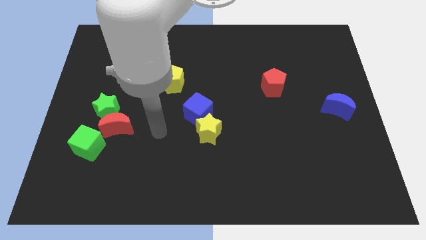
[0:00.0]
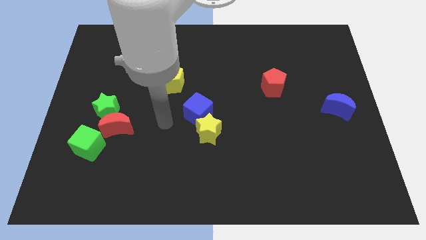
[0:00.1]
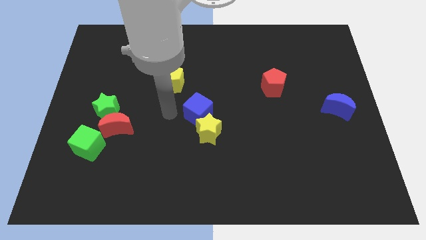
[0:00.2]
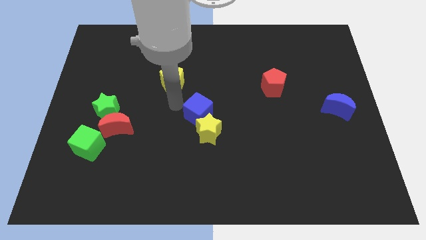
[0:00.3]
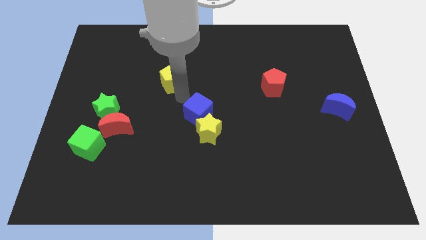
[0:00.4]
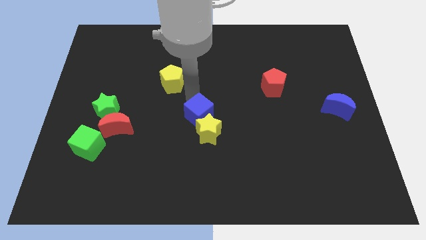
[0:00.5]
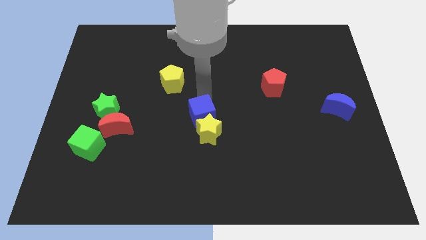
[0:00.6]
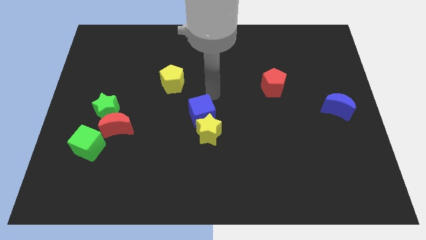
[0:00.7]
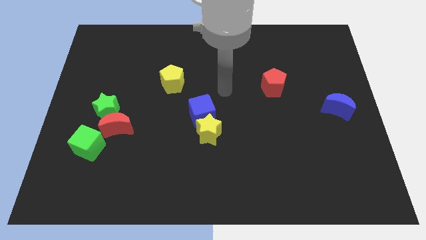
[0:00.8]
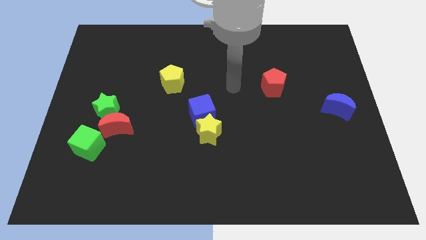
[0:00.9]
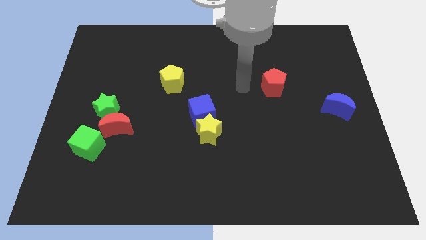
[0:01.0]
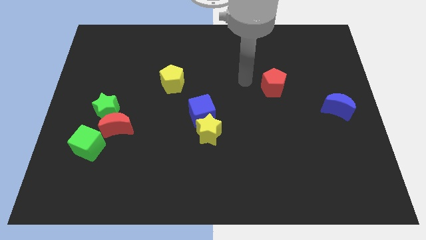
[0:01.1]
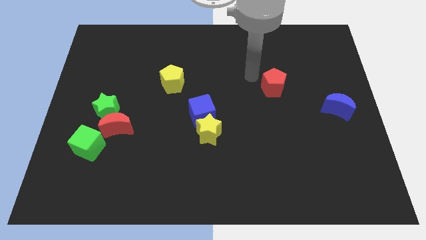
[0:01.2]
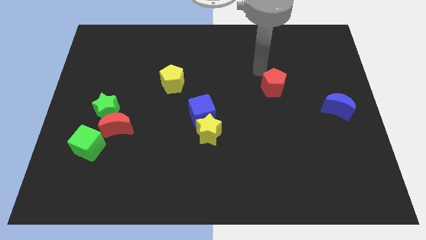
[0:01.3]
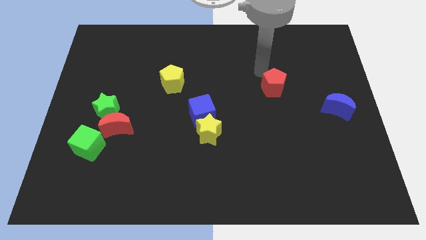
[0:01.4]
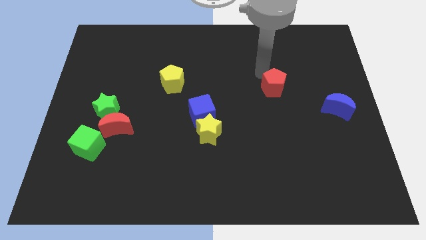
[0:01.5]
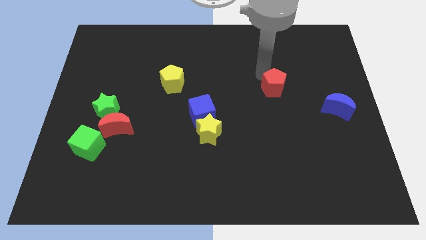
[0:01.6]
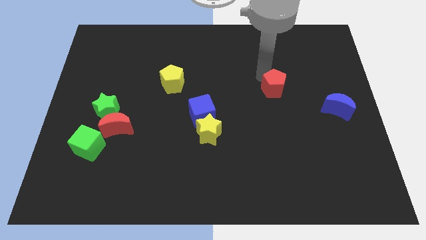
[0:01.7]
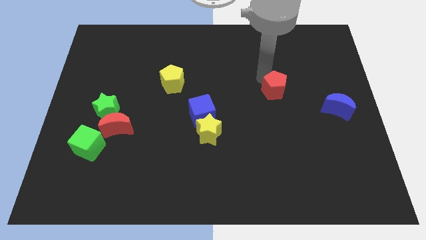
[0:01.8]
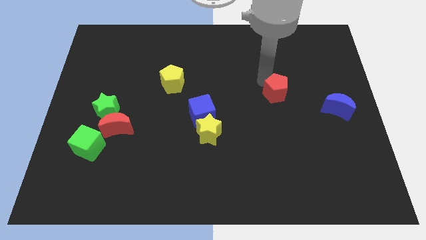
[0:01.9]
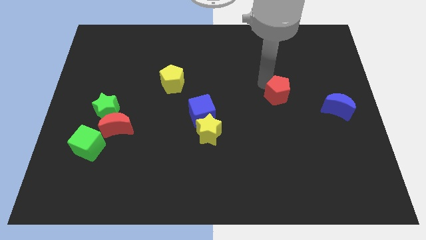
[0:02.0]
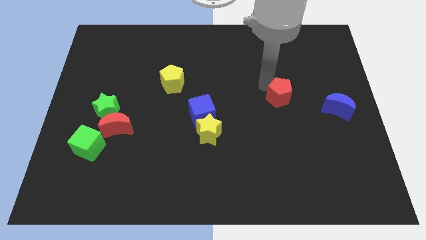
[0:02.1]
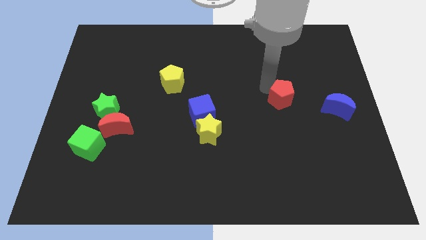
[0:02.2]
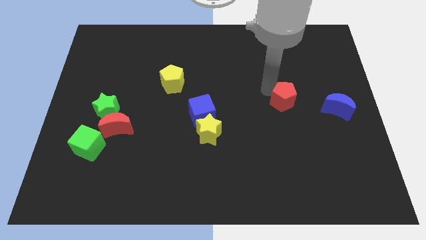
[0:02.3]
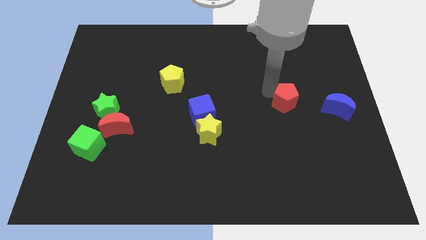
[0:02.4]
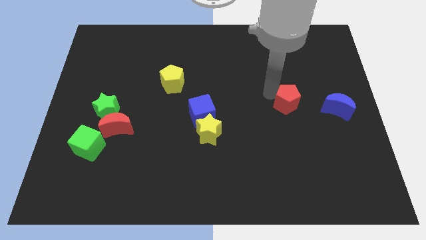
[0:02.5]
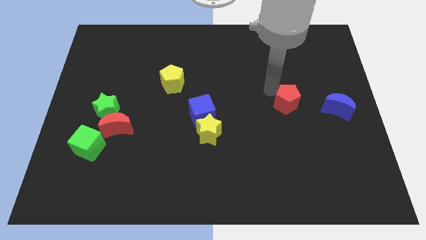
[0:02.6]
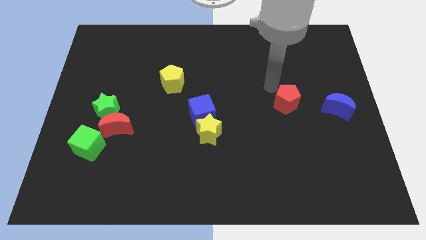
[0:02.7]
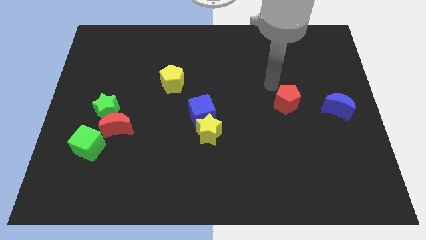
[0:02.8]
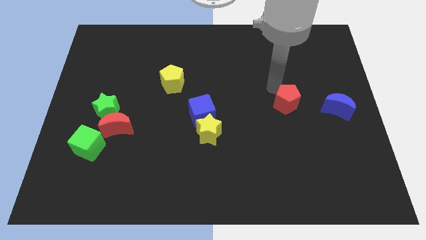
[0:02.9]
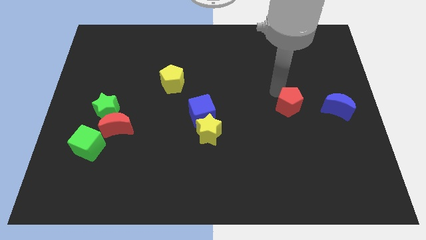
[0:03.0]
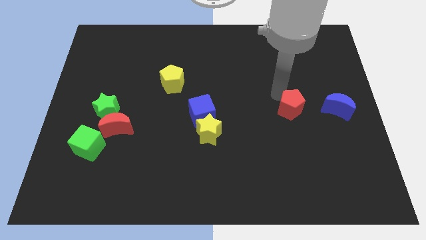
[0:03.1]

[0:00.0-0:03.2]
slightly slide the red pentagon down and then right

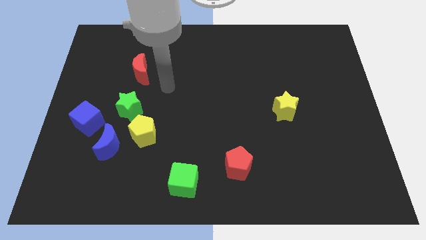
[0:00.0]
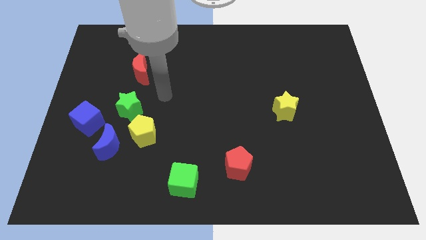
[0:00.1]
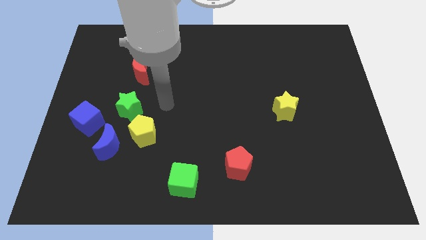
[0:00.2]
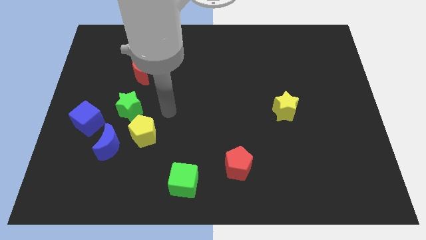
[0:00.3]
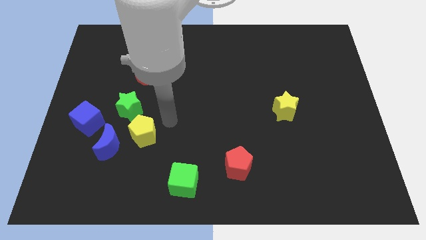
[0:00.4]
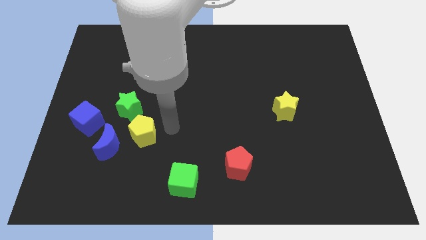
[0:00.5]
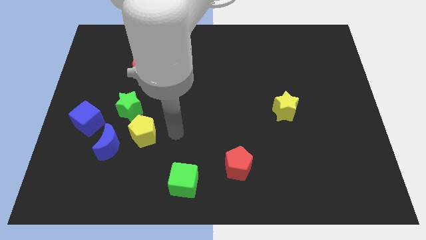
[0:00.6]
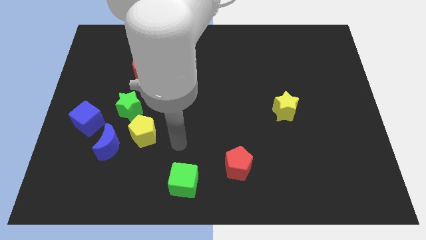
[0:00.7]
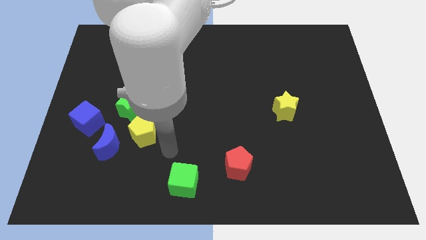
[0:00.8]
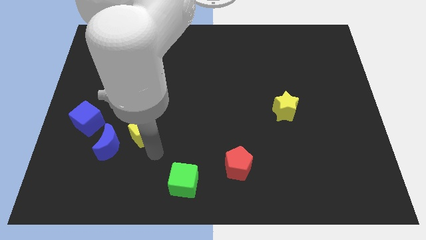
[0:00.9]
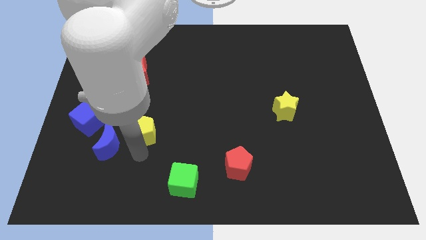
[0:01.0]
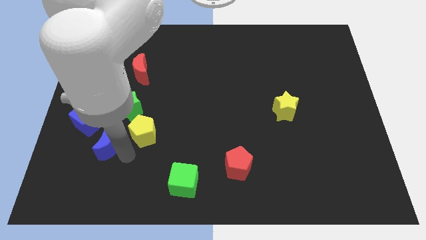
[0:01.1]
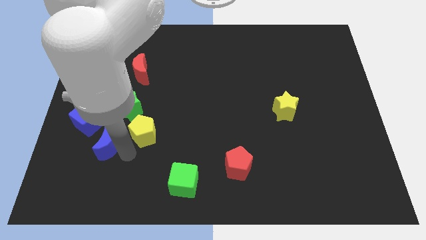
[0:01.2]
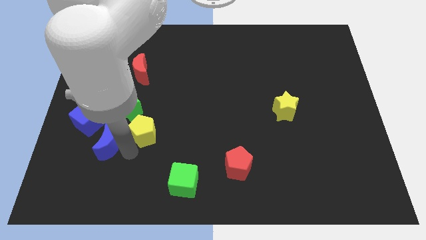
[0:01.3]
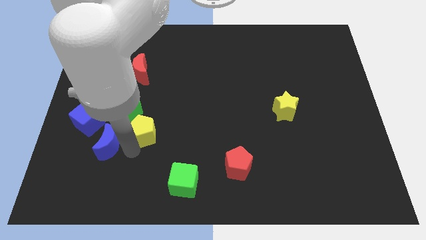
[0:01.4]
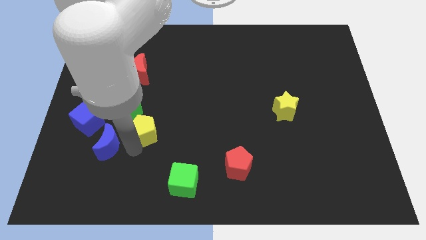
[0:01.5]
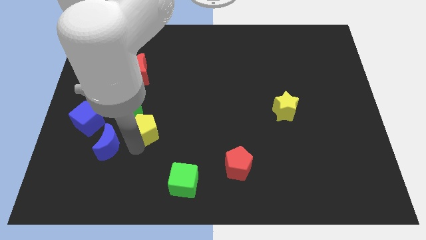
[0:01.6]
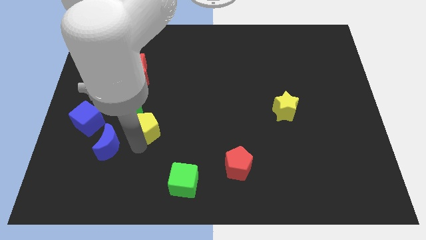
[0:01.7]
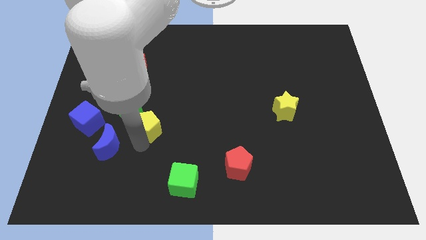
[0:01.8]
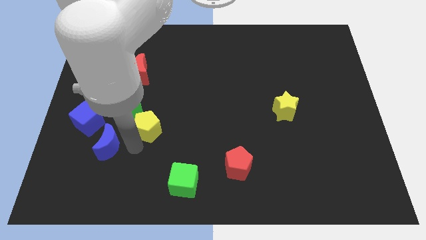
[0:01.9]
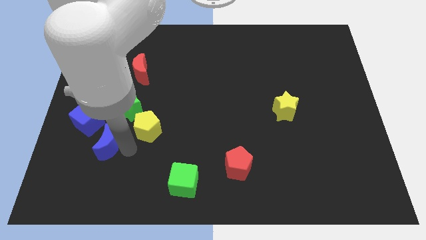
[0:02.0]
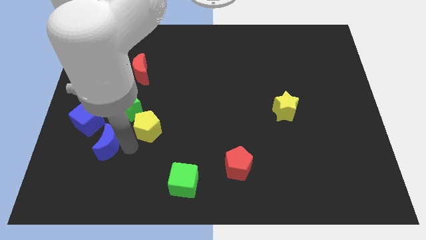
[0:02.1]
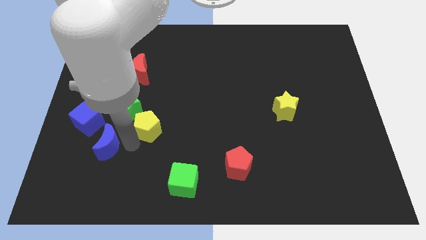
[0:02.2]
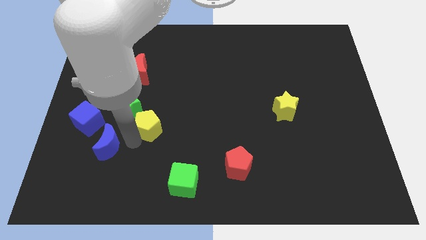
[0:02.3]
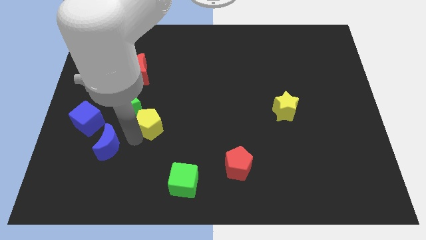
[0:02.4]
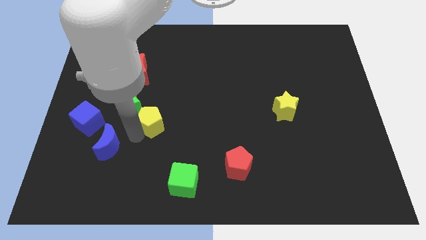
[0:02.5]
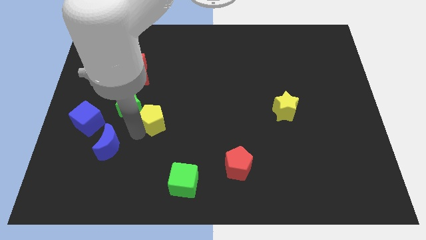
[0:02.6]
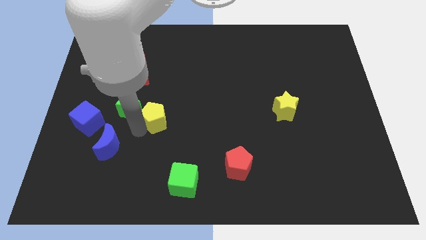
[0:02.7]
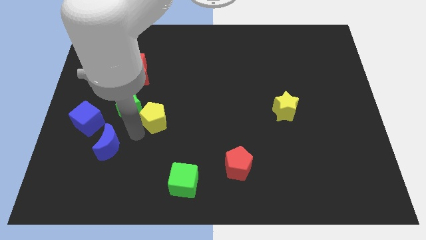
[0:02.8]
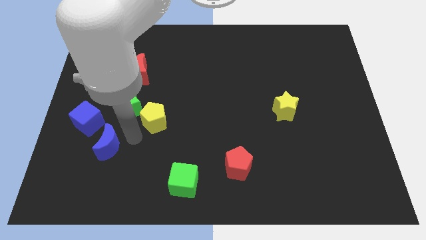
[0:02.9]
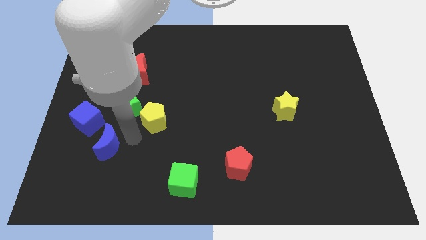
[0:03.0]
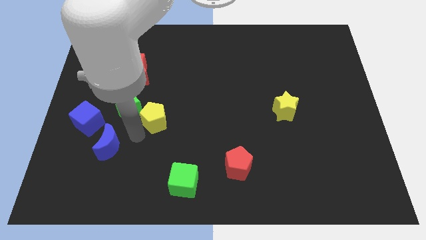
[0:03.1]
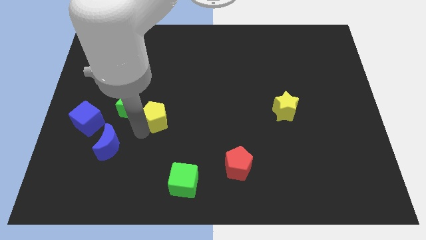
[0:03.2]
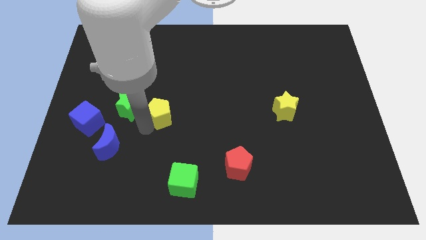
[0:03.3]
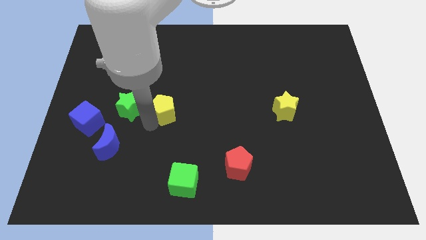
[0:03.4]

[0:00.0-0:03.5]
push the yellow pentagon upwards and to the right somewhat

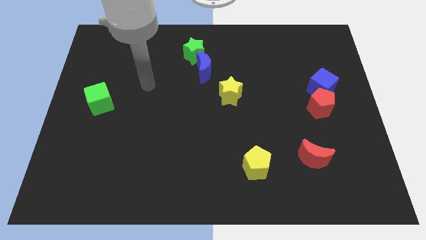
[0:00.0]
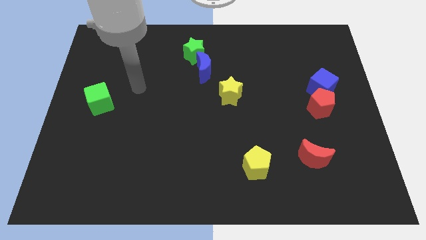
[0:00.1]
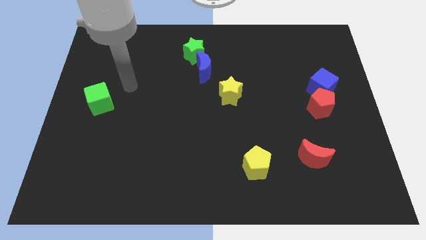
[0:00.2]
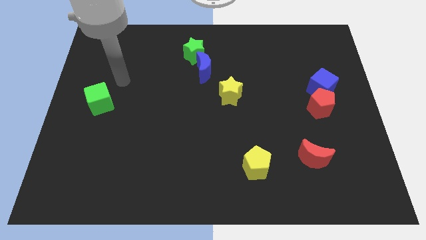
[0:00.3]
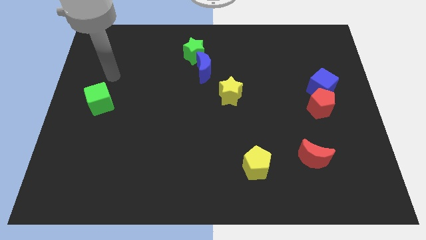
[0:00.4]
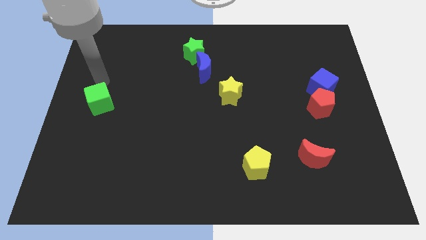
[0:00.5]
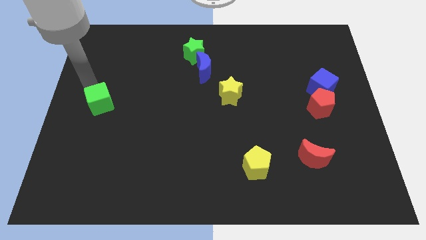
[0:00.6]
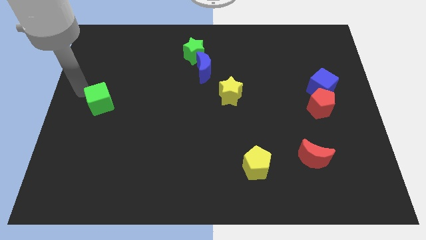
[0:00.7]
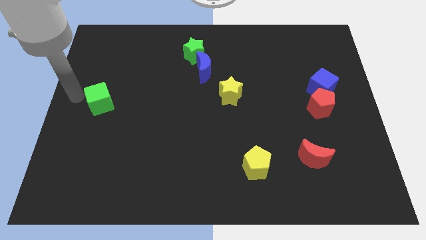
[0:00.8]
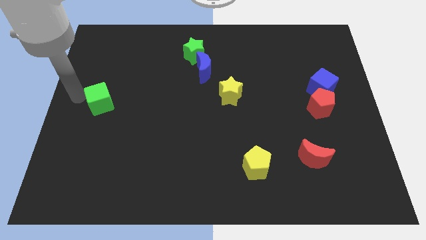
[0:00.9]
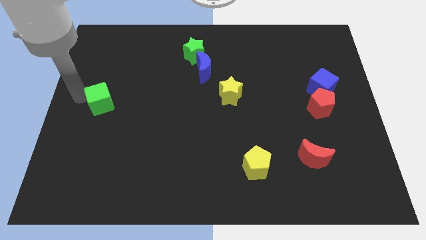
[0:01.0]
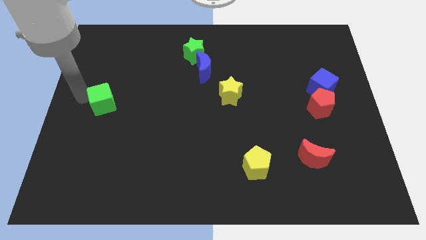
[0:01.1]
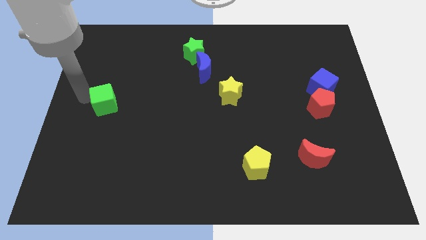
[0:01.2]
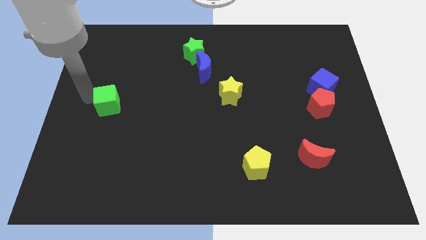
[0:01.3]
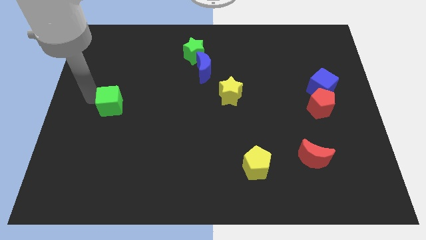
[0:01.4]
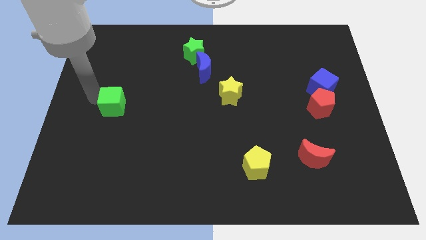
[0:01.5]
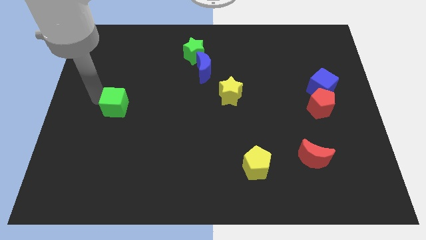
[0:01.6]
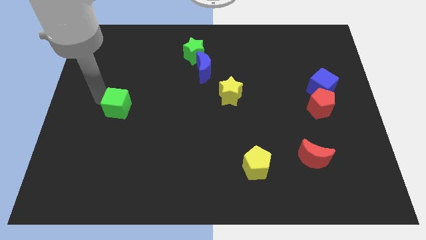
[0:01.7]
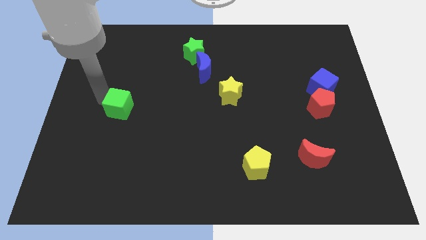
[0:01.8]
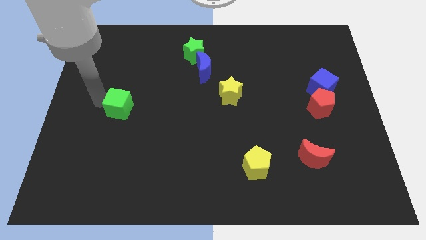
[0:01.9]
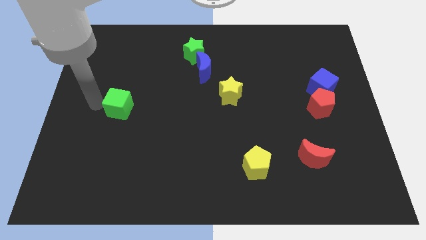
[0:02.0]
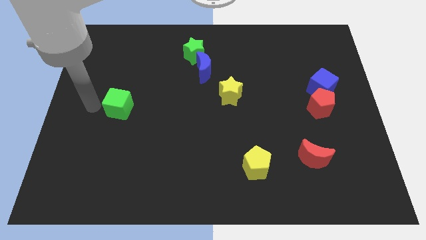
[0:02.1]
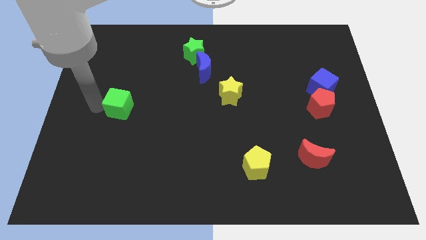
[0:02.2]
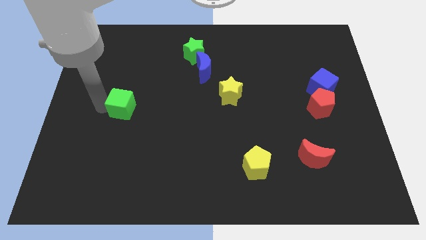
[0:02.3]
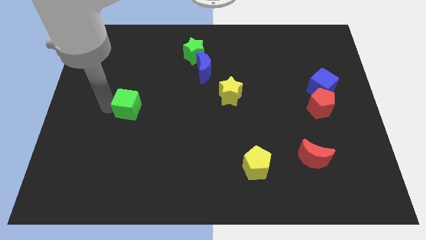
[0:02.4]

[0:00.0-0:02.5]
push the green cube right somewhat
